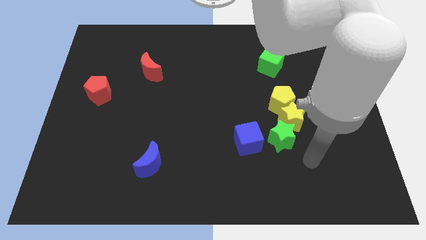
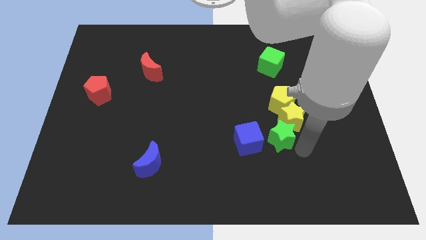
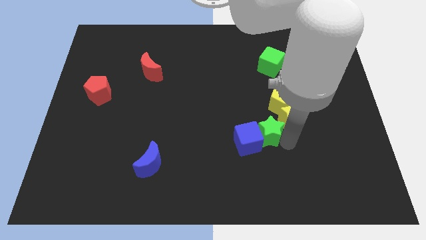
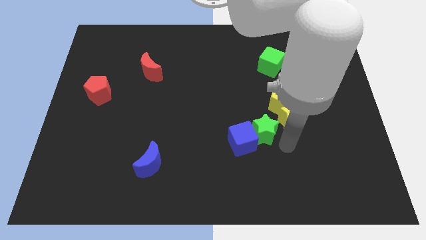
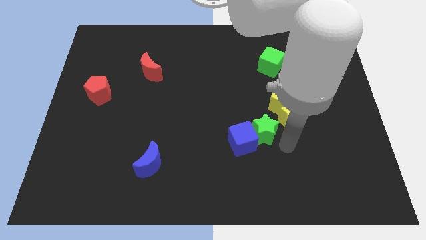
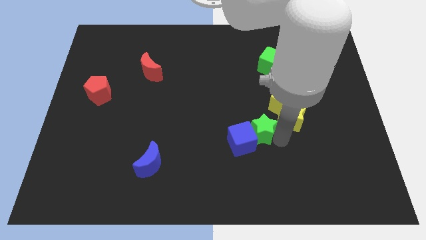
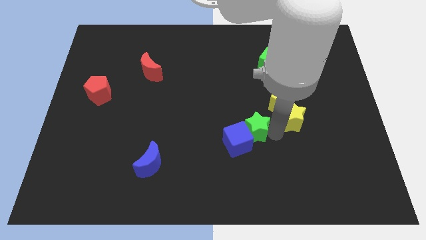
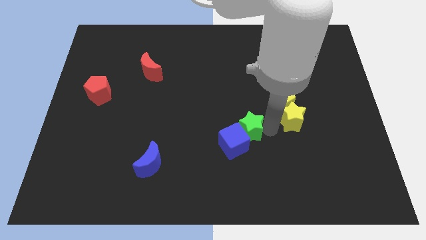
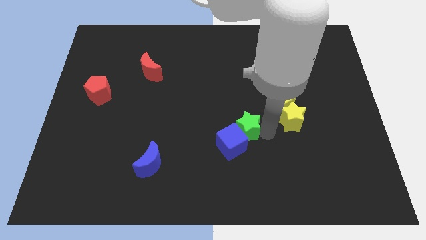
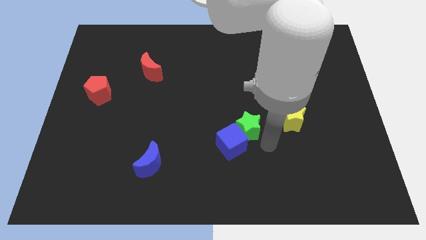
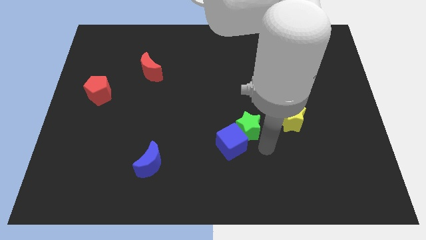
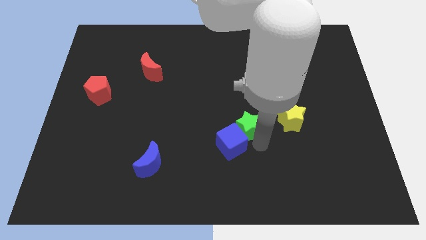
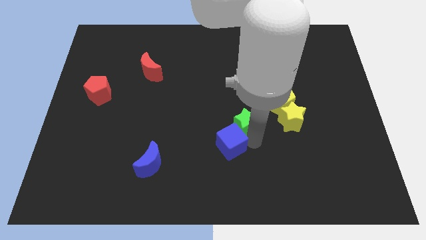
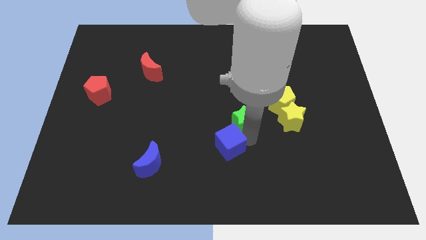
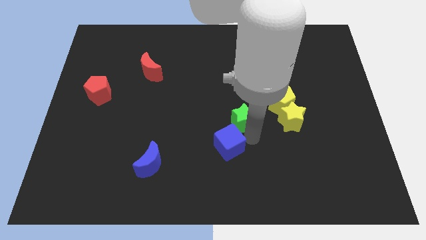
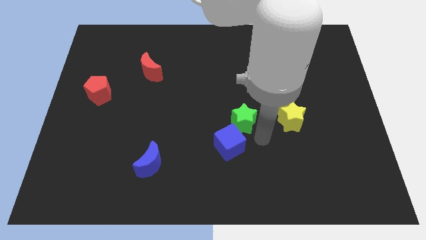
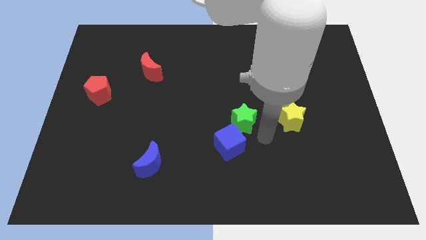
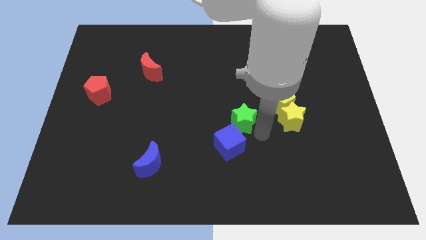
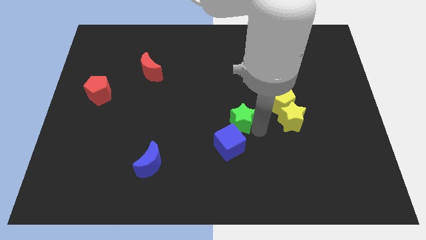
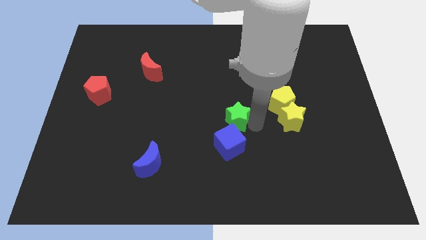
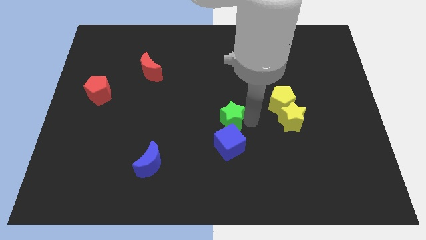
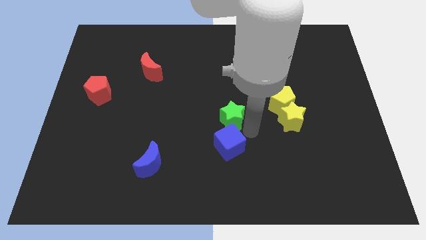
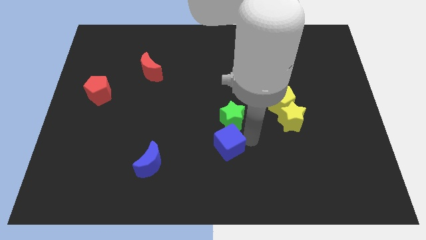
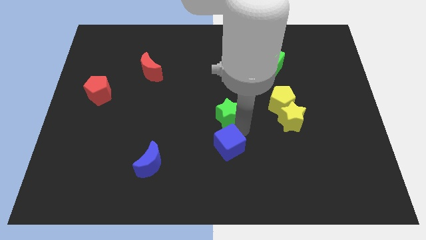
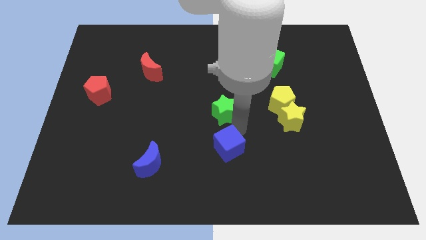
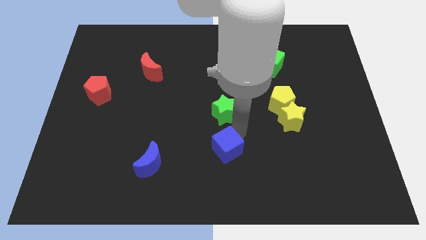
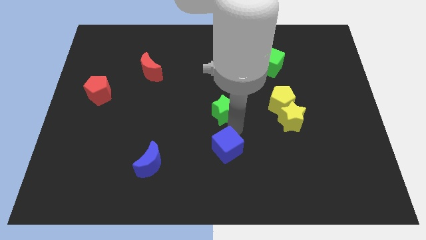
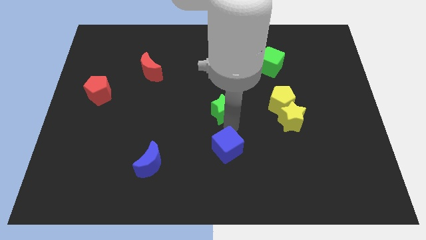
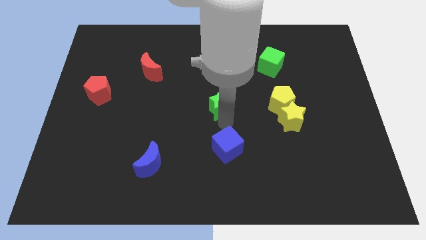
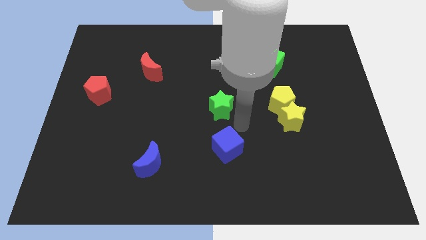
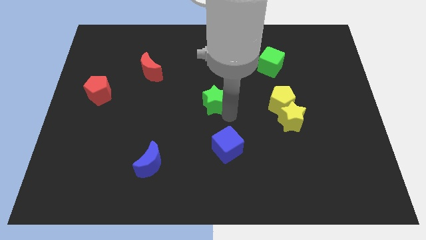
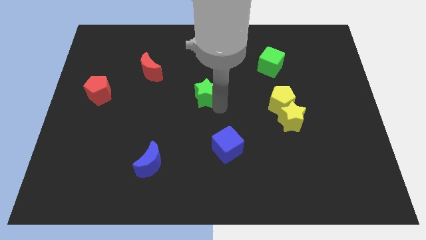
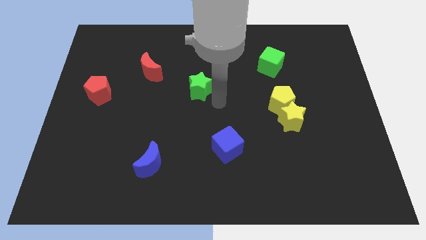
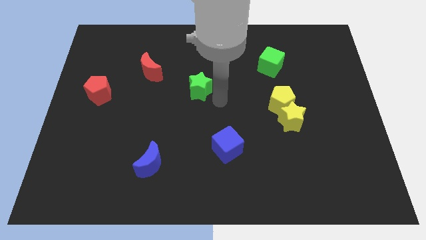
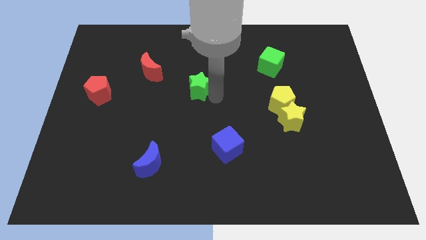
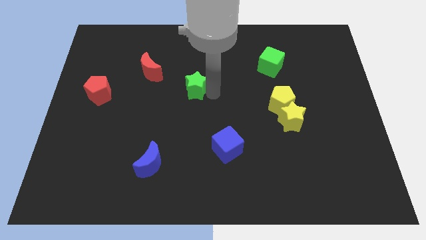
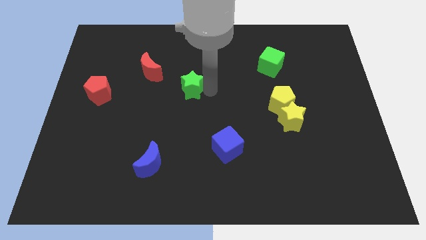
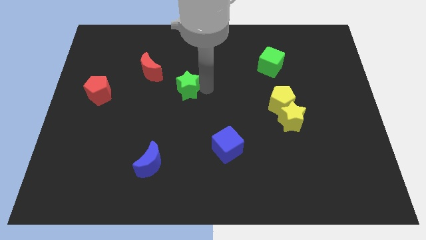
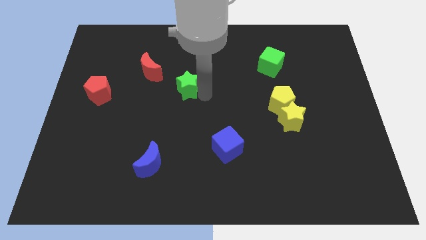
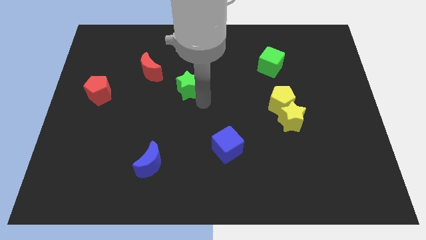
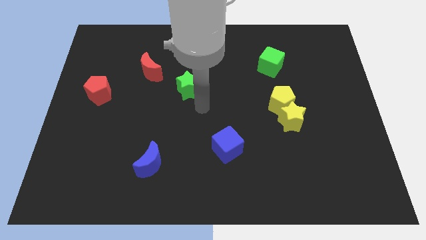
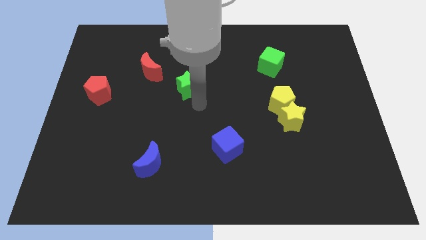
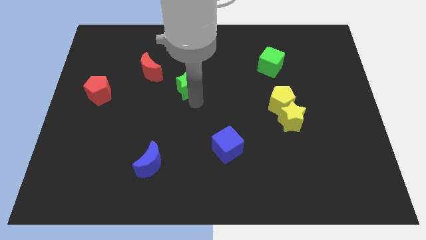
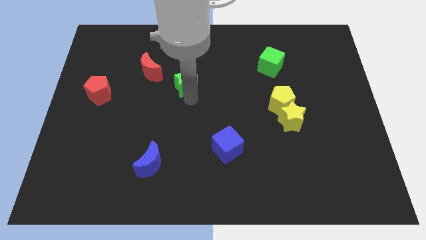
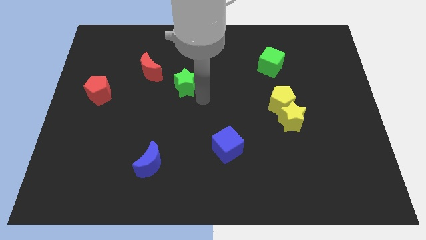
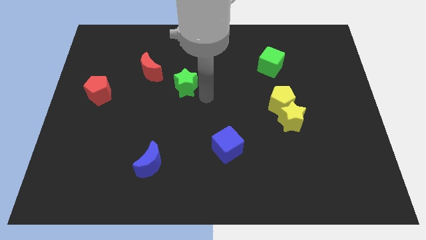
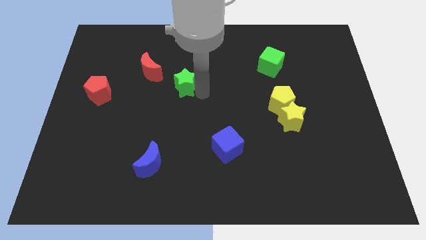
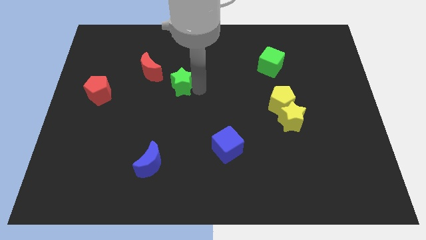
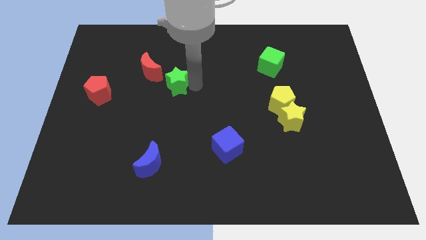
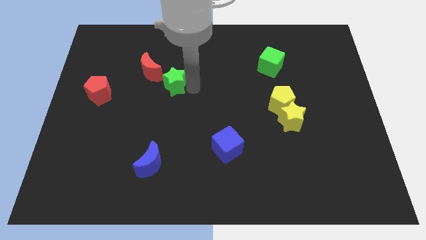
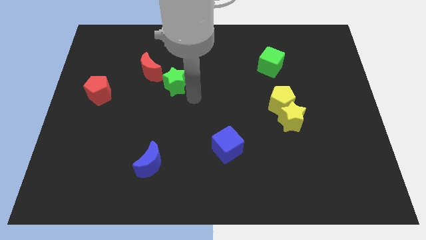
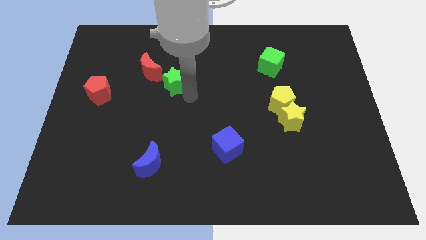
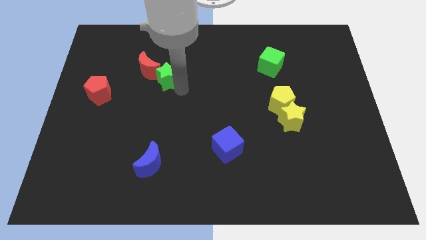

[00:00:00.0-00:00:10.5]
slide the green star towards the red moon

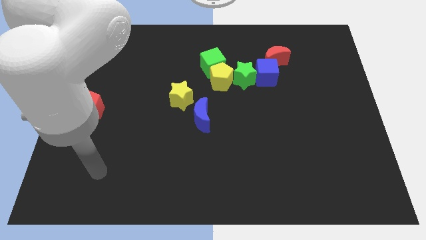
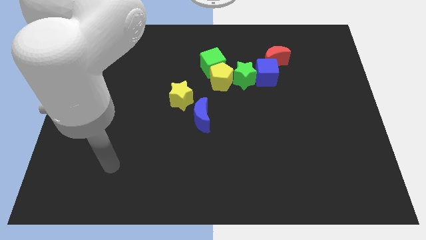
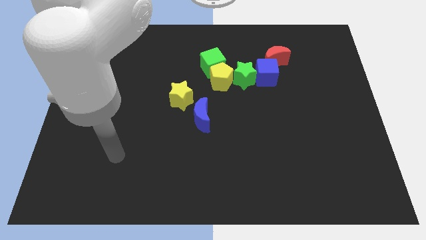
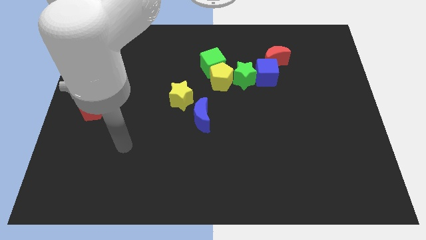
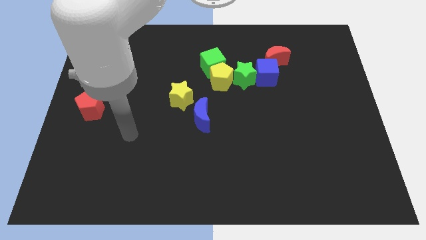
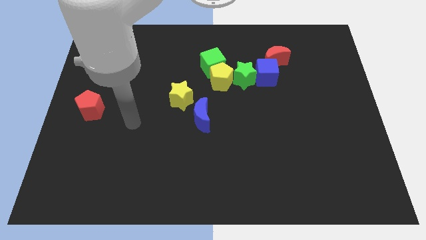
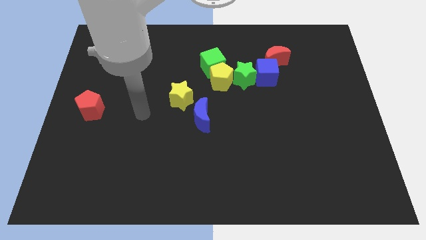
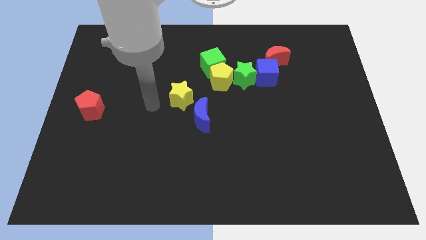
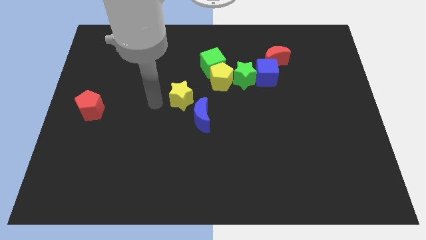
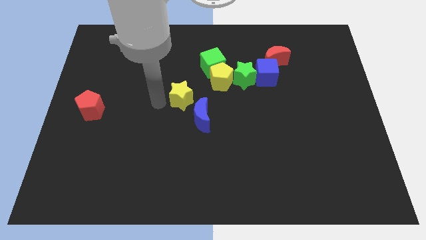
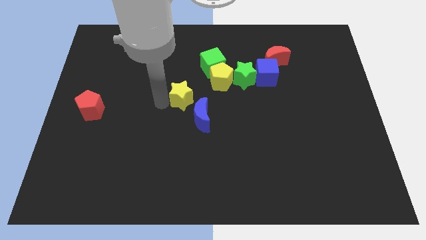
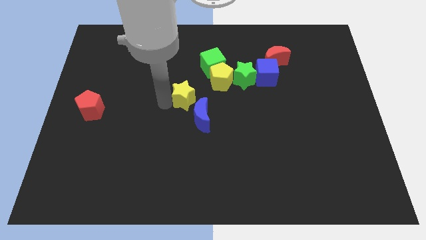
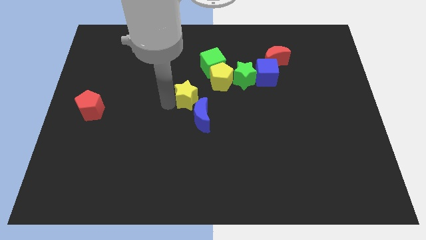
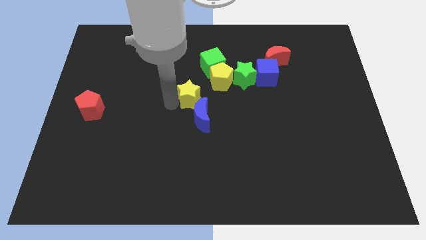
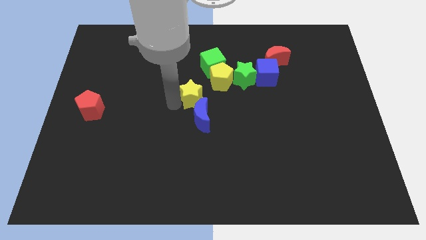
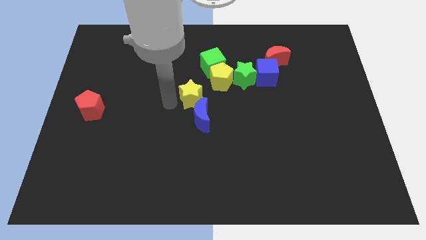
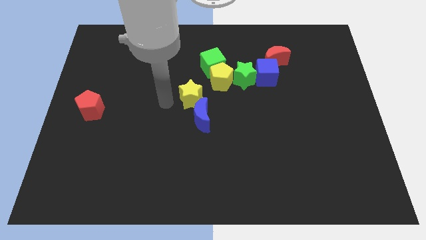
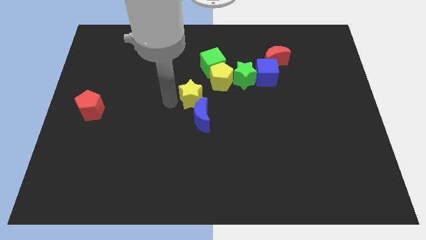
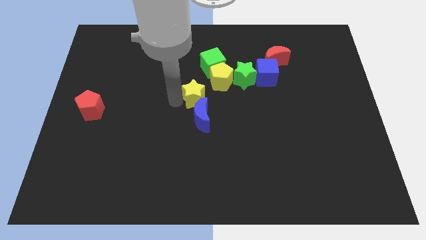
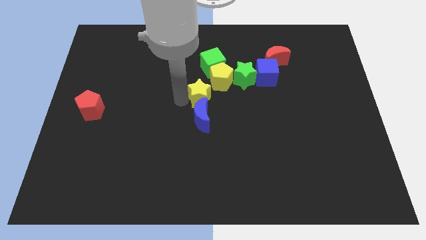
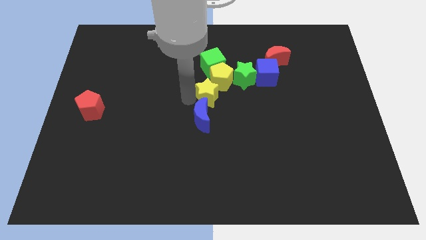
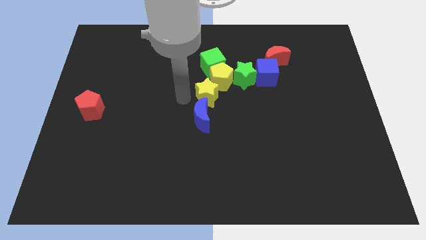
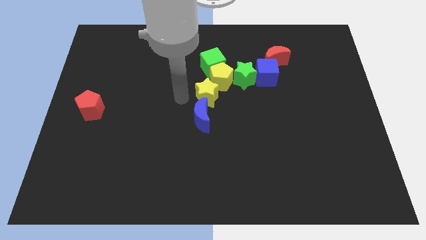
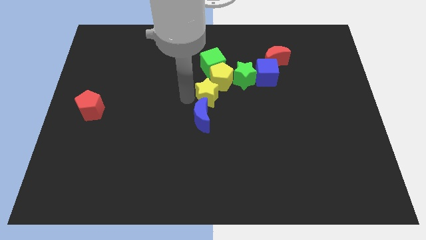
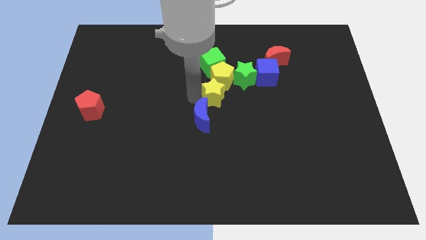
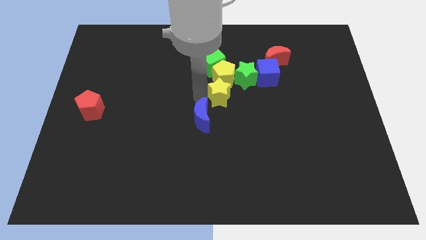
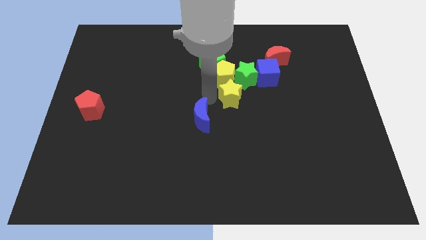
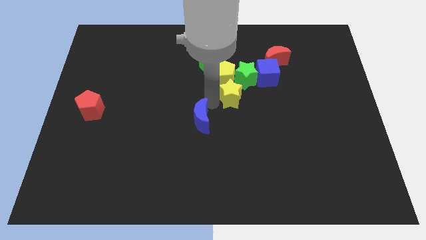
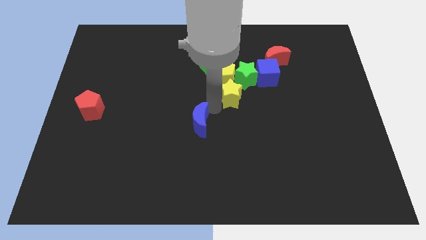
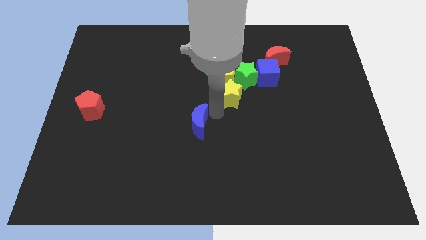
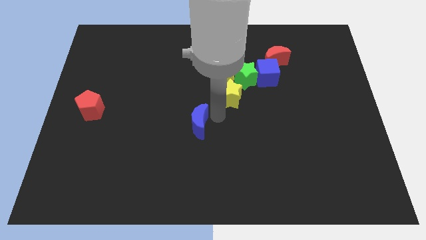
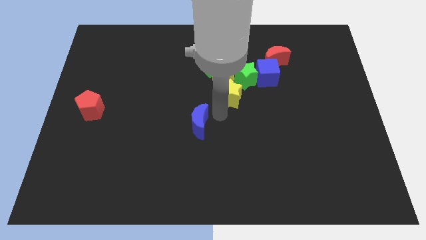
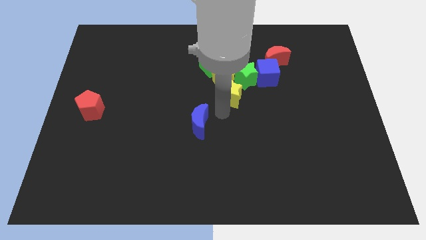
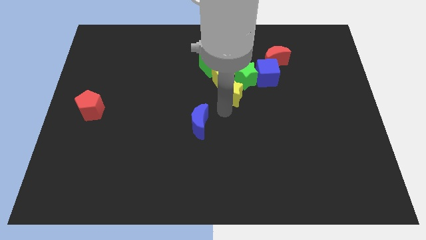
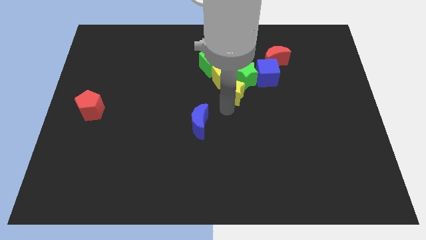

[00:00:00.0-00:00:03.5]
move the yellow star towards the green star
